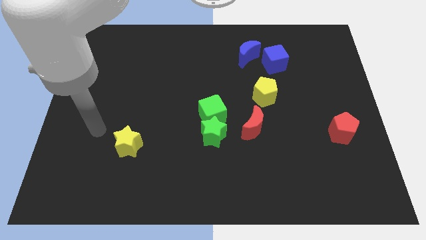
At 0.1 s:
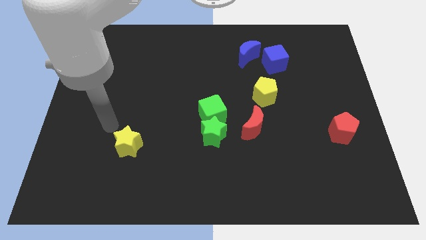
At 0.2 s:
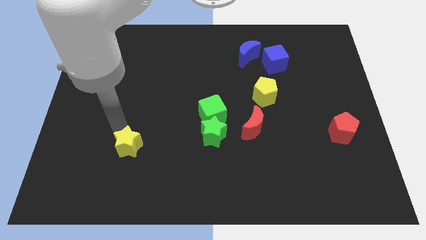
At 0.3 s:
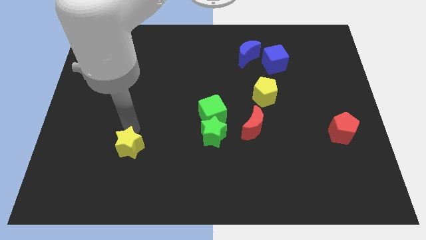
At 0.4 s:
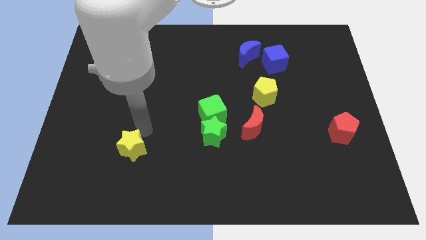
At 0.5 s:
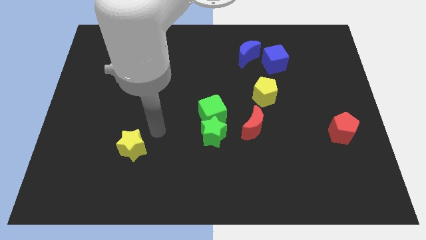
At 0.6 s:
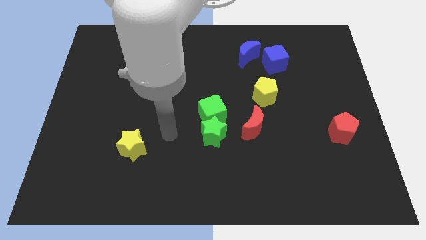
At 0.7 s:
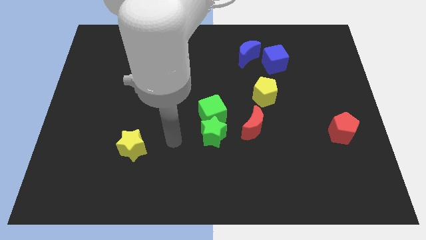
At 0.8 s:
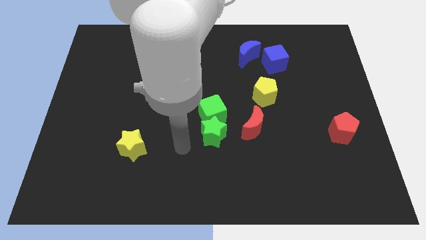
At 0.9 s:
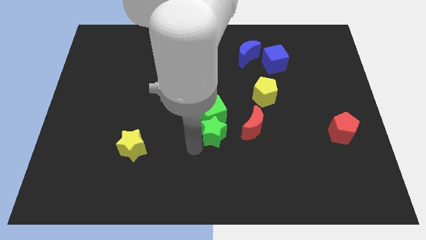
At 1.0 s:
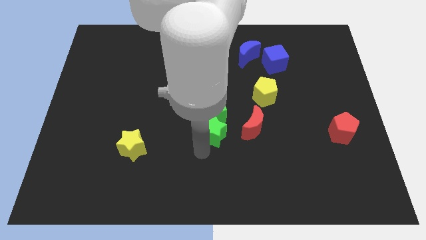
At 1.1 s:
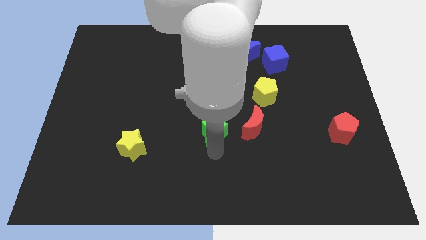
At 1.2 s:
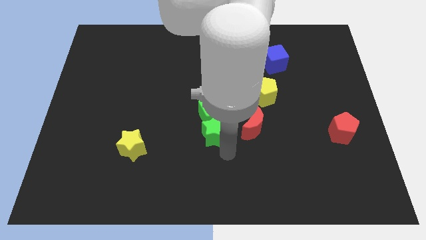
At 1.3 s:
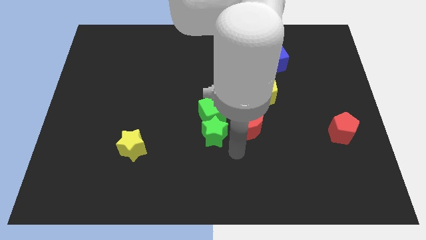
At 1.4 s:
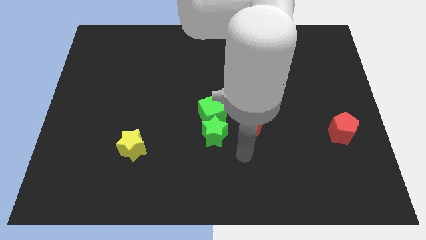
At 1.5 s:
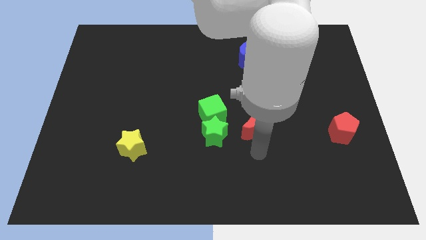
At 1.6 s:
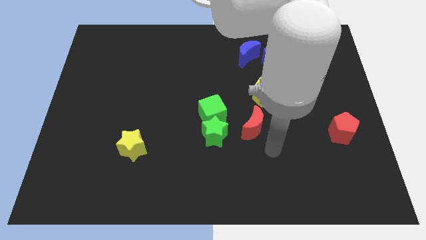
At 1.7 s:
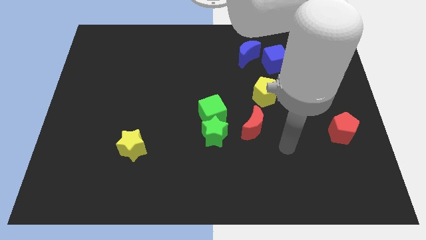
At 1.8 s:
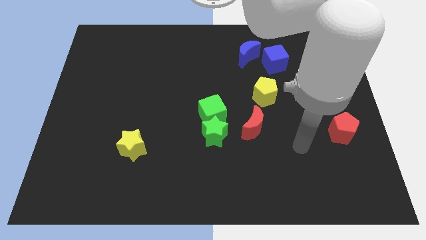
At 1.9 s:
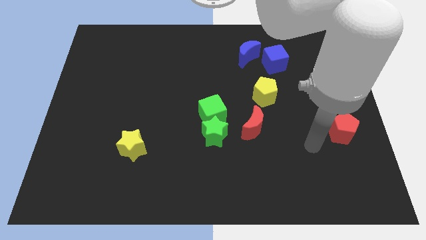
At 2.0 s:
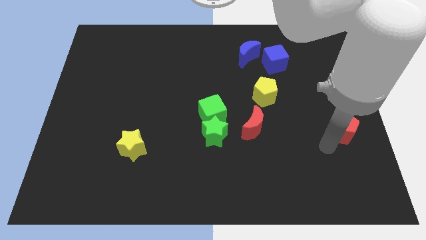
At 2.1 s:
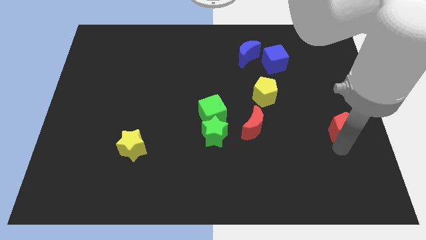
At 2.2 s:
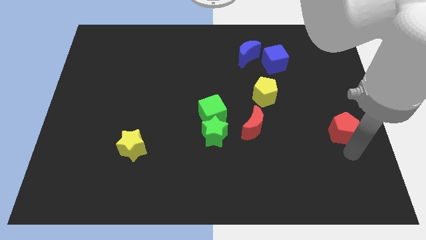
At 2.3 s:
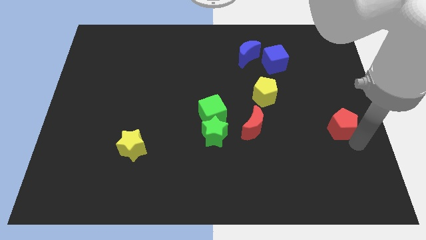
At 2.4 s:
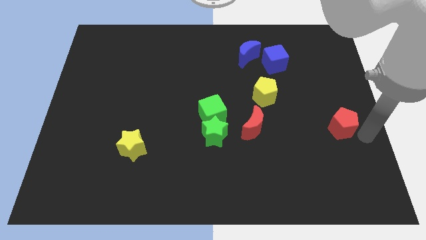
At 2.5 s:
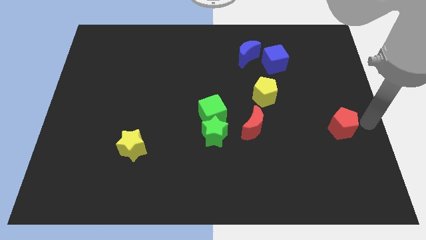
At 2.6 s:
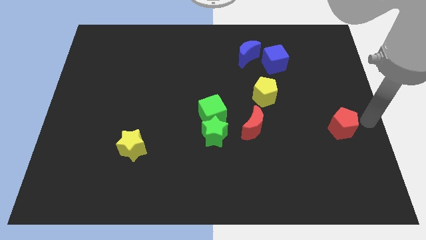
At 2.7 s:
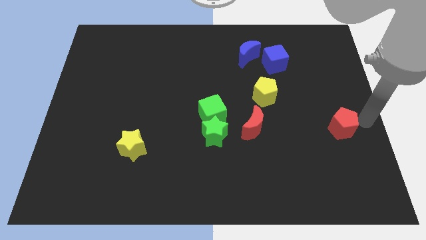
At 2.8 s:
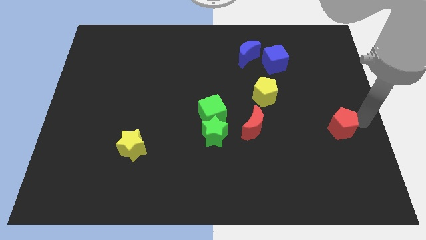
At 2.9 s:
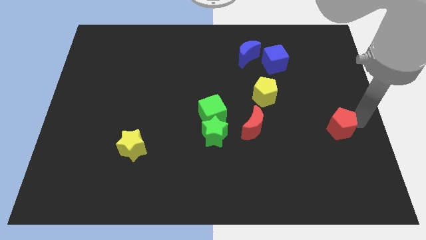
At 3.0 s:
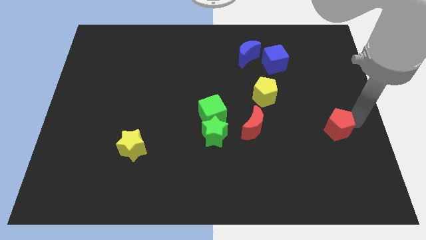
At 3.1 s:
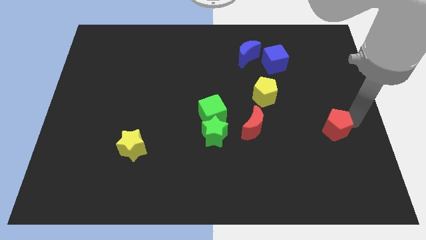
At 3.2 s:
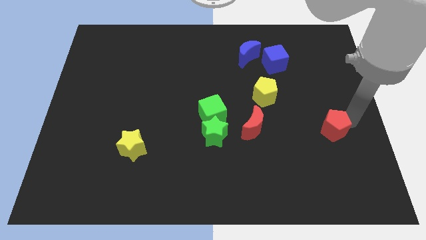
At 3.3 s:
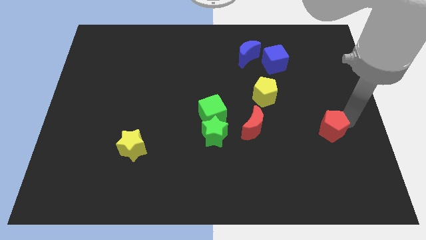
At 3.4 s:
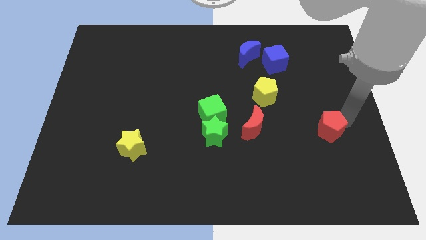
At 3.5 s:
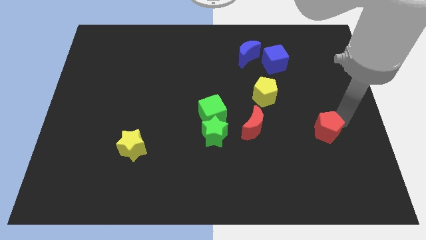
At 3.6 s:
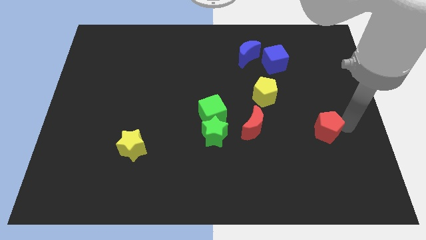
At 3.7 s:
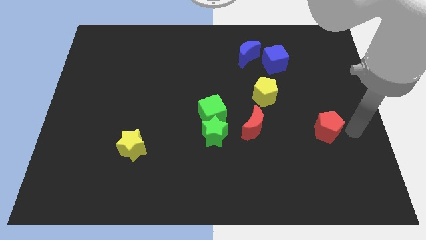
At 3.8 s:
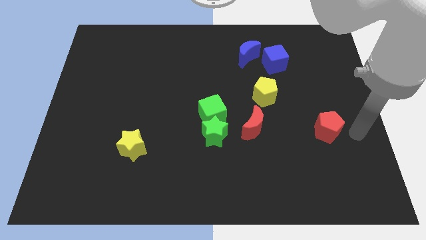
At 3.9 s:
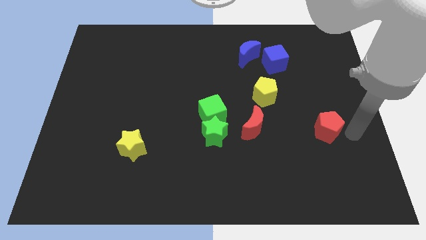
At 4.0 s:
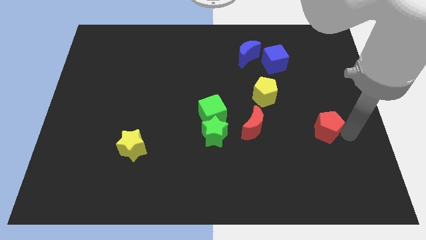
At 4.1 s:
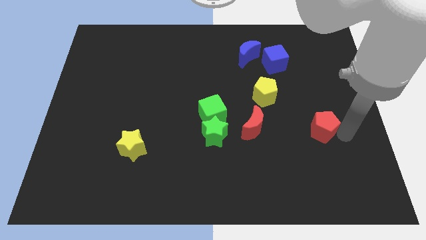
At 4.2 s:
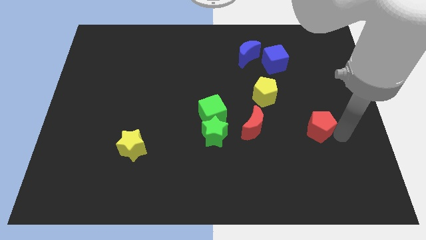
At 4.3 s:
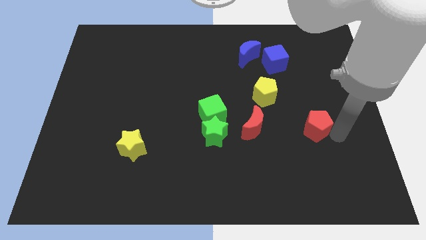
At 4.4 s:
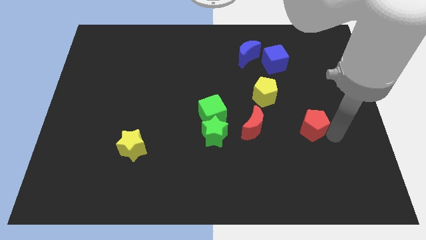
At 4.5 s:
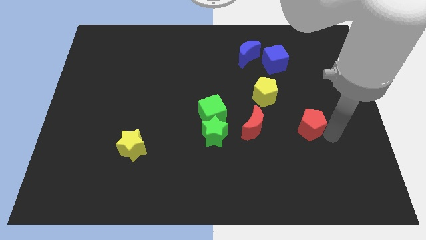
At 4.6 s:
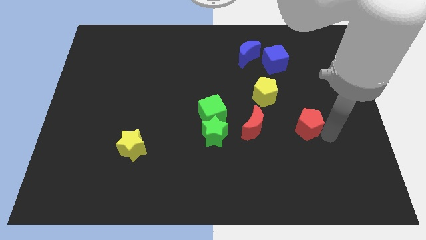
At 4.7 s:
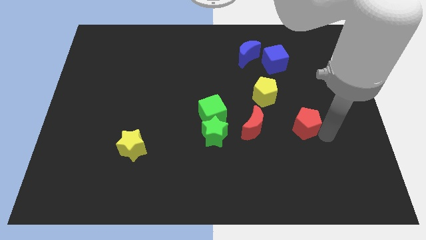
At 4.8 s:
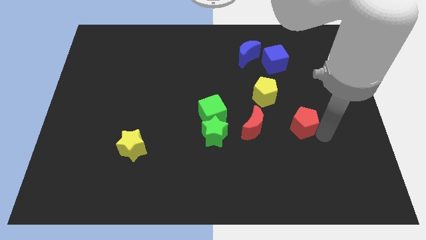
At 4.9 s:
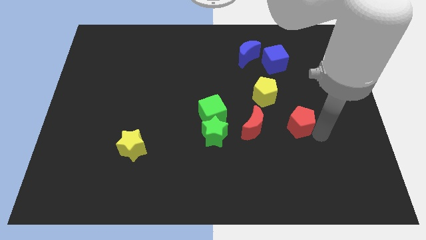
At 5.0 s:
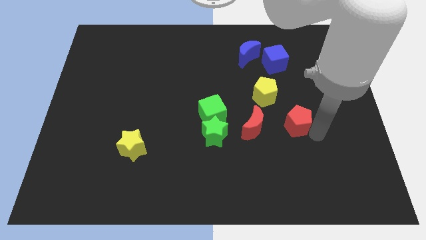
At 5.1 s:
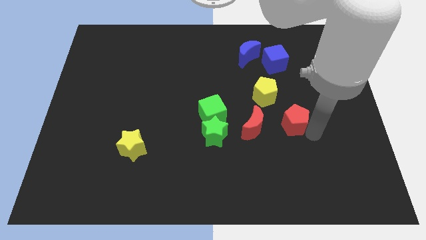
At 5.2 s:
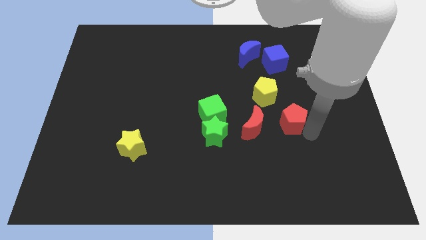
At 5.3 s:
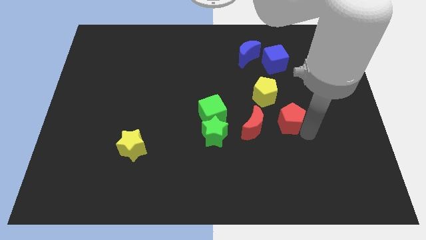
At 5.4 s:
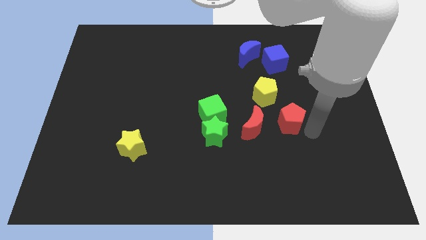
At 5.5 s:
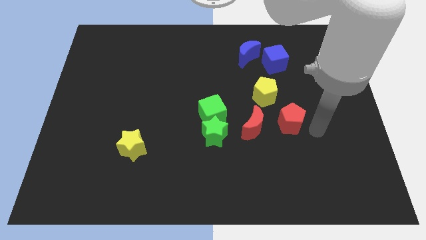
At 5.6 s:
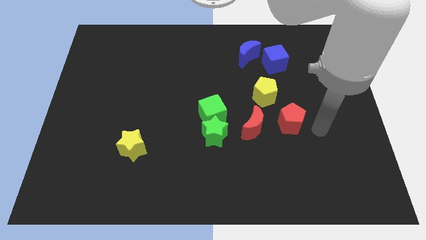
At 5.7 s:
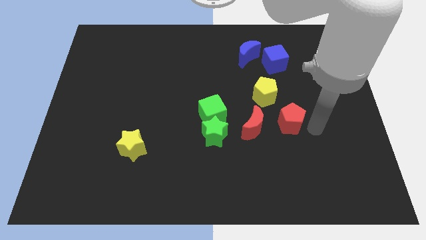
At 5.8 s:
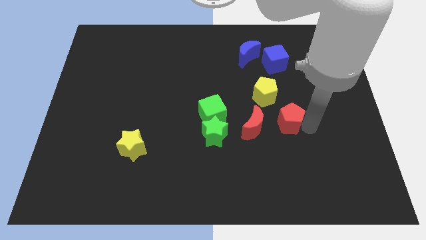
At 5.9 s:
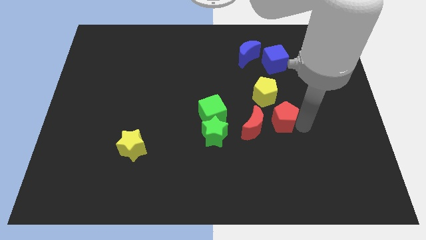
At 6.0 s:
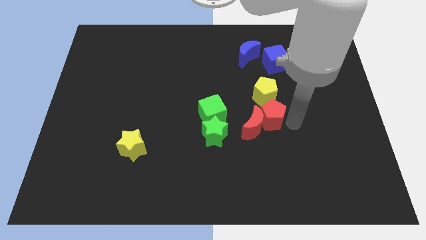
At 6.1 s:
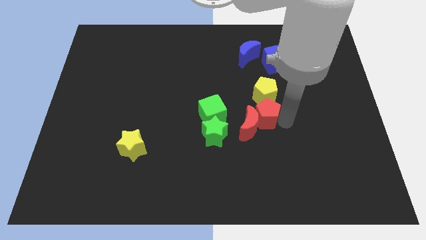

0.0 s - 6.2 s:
move the red pentagon to the bottom left side of the yellow pentagon
